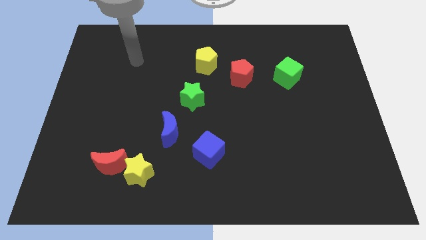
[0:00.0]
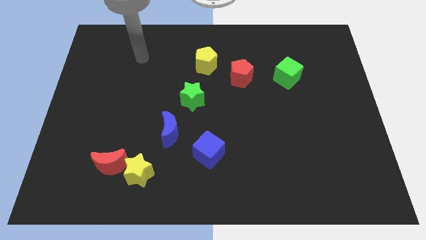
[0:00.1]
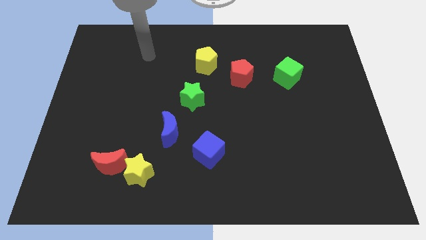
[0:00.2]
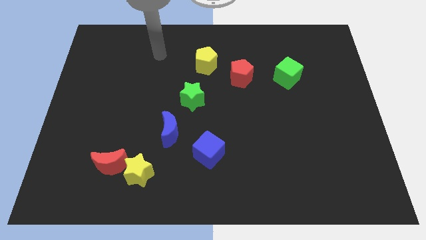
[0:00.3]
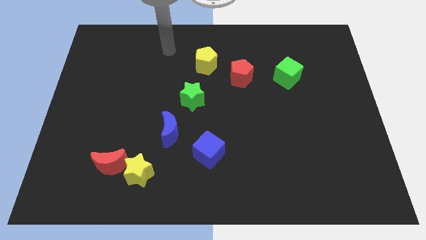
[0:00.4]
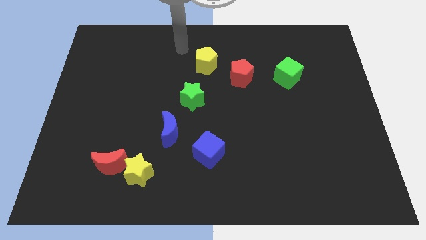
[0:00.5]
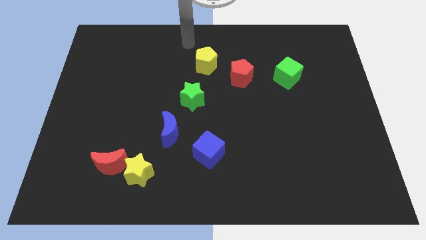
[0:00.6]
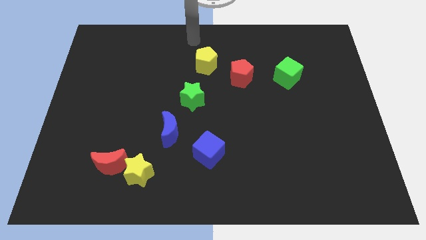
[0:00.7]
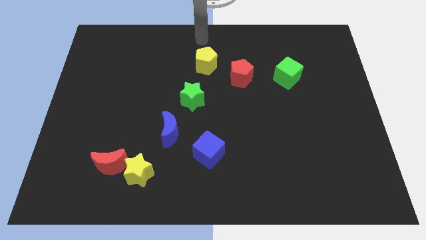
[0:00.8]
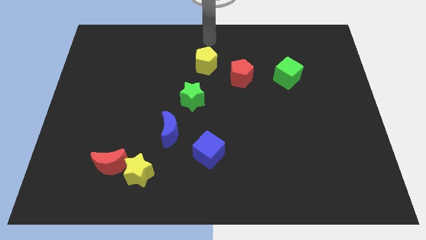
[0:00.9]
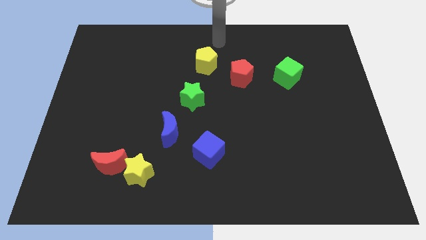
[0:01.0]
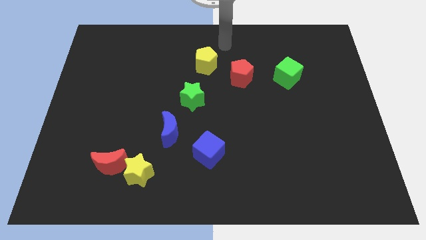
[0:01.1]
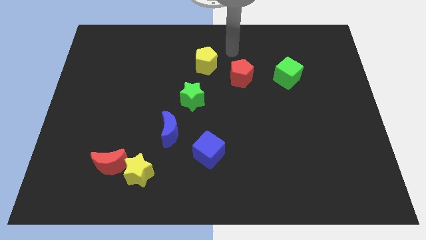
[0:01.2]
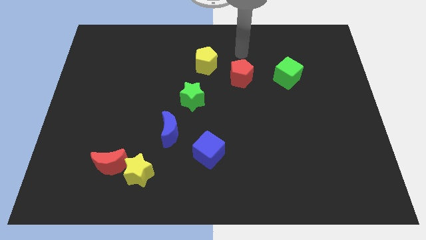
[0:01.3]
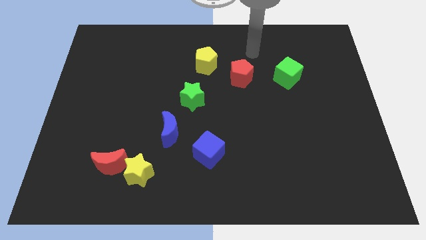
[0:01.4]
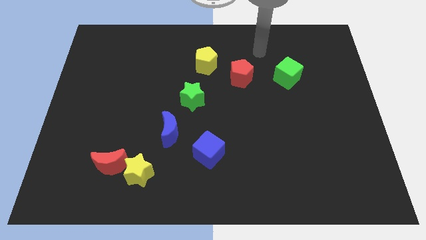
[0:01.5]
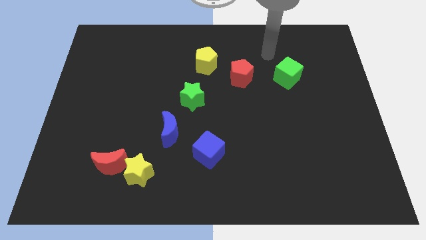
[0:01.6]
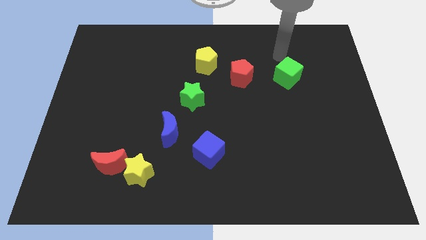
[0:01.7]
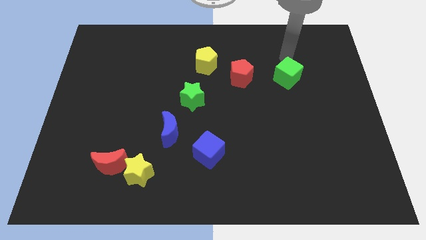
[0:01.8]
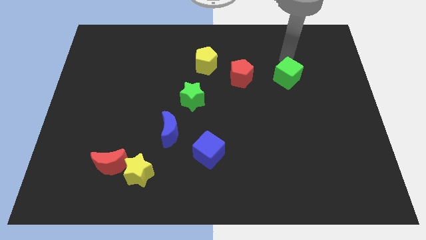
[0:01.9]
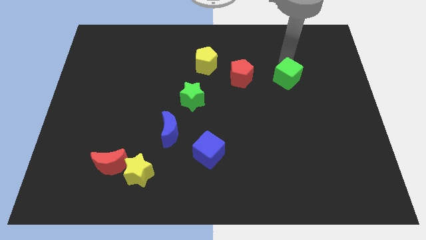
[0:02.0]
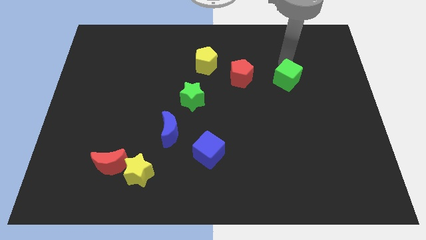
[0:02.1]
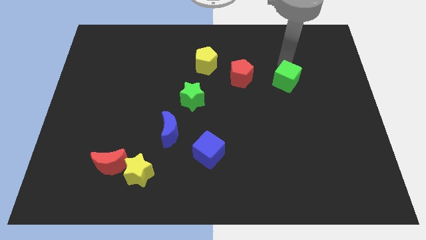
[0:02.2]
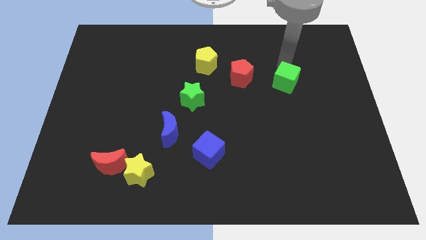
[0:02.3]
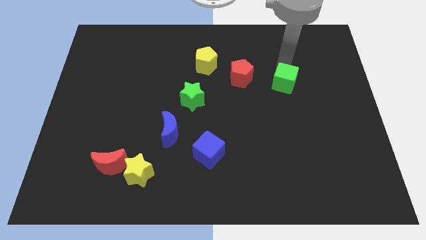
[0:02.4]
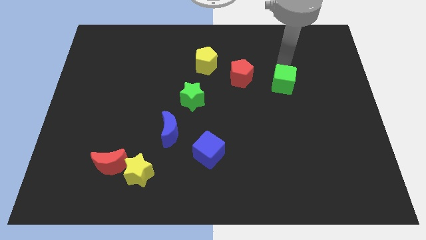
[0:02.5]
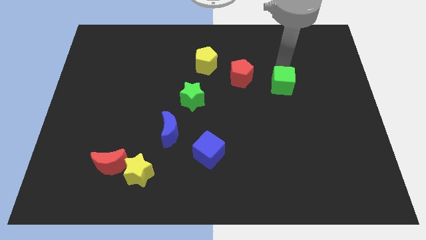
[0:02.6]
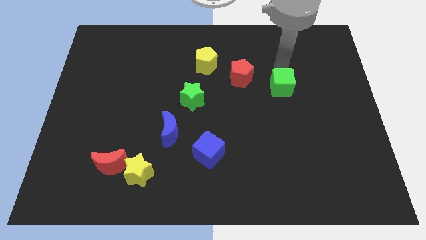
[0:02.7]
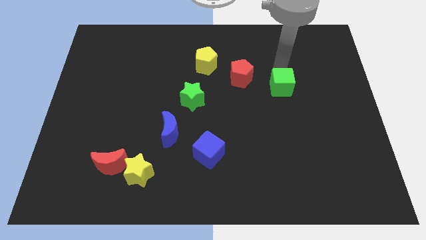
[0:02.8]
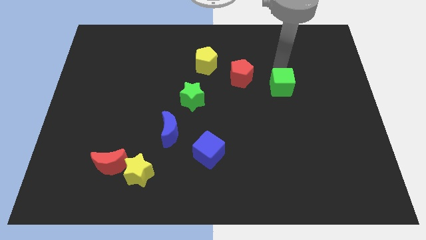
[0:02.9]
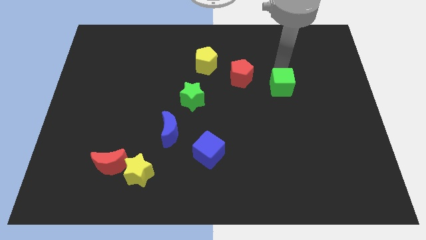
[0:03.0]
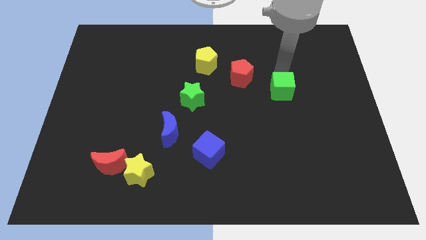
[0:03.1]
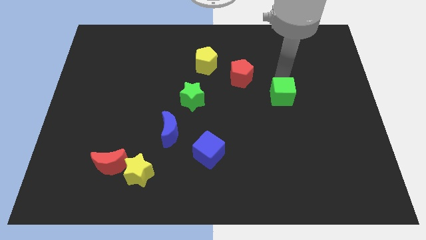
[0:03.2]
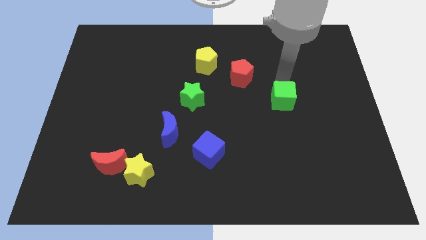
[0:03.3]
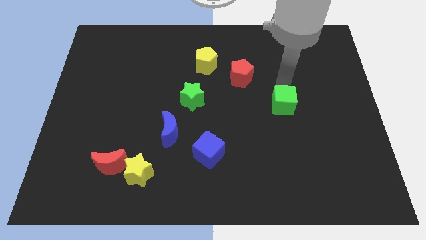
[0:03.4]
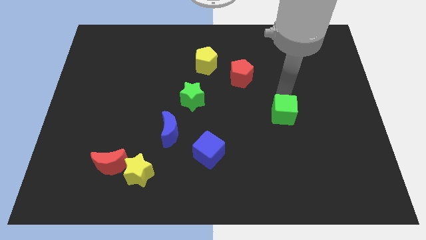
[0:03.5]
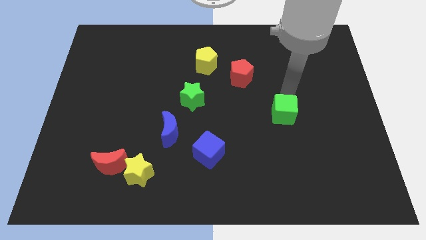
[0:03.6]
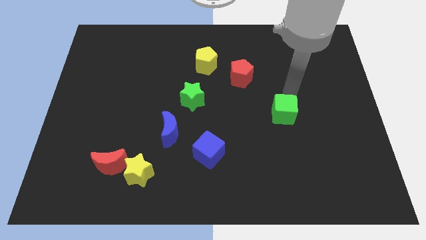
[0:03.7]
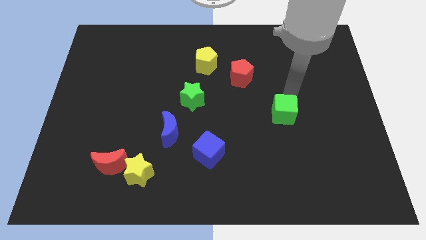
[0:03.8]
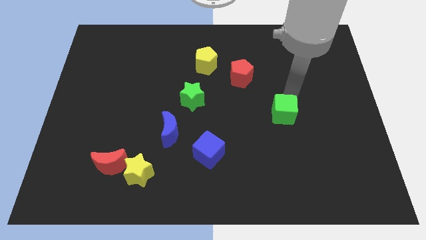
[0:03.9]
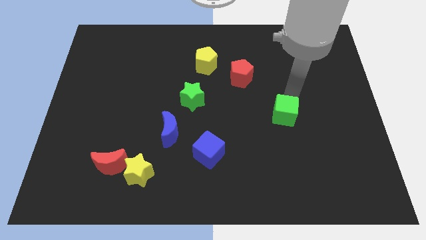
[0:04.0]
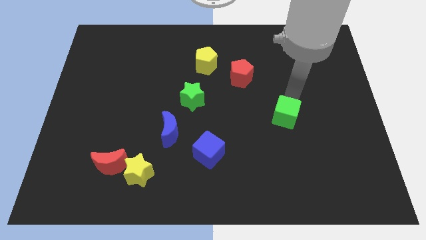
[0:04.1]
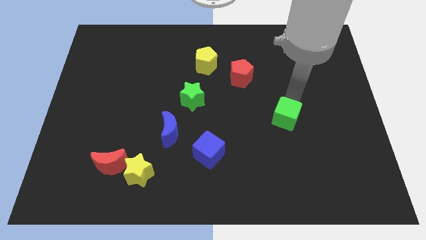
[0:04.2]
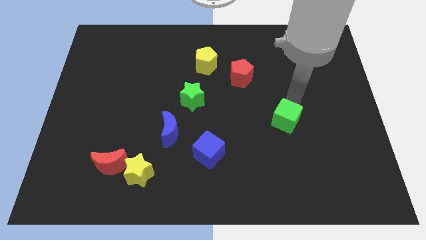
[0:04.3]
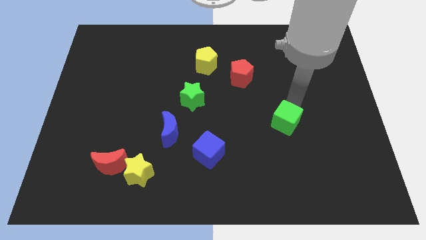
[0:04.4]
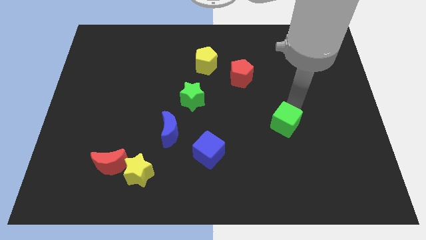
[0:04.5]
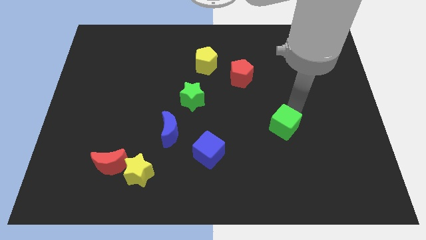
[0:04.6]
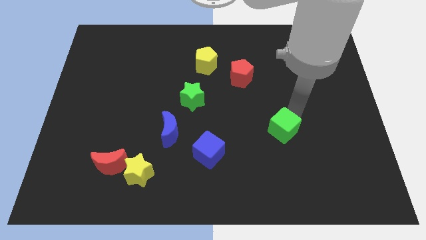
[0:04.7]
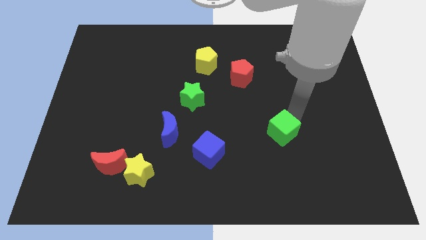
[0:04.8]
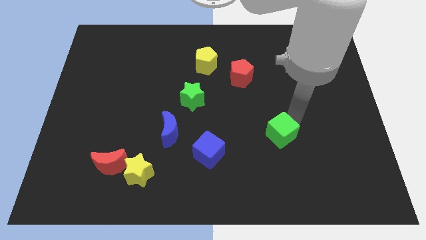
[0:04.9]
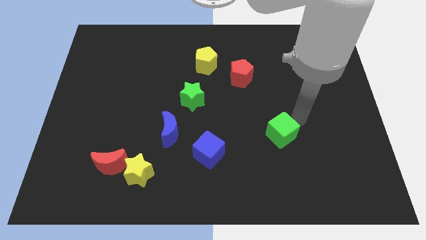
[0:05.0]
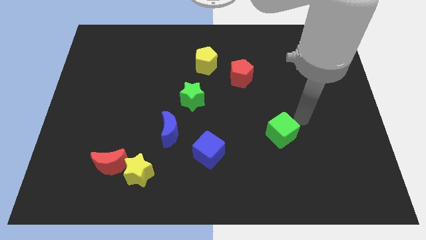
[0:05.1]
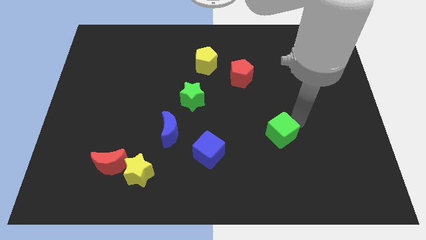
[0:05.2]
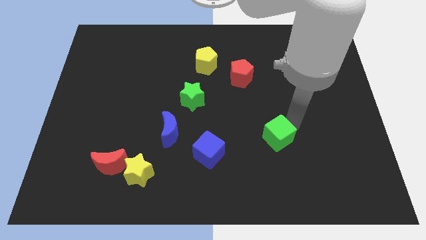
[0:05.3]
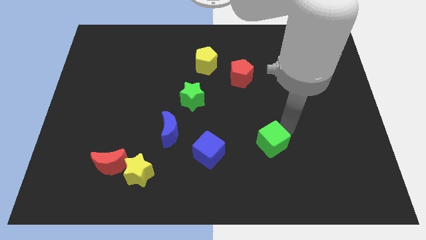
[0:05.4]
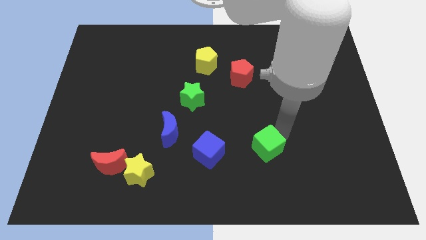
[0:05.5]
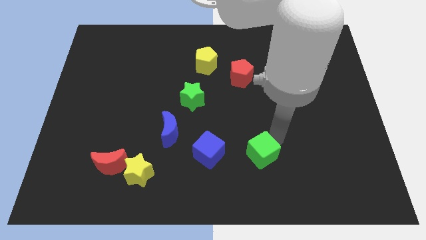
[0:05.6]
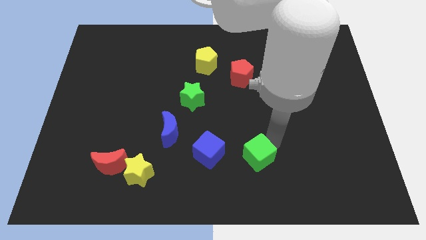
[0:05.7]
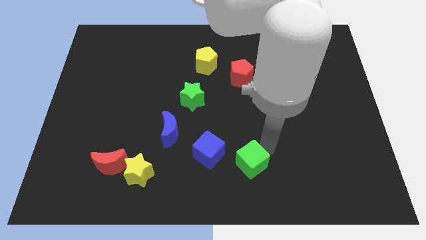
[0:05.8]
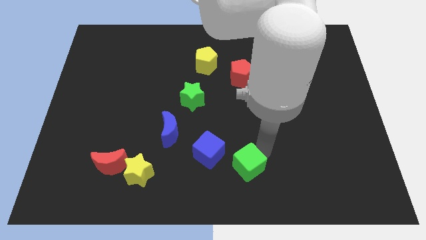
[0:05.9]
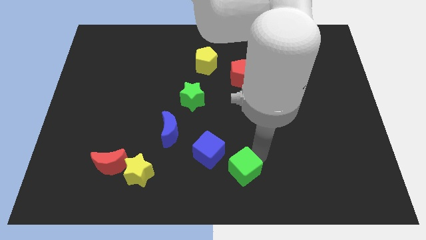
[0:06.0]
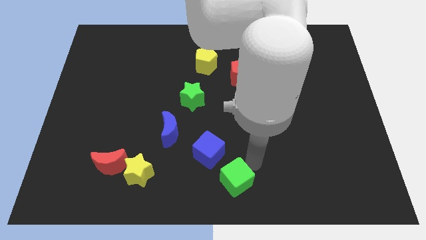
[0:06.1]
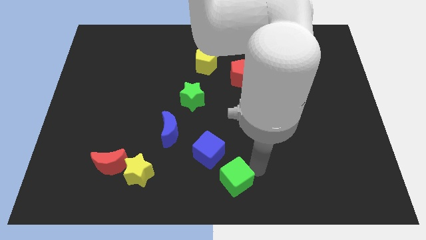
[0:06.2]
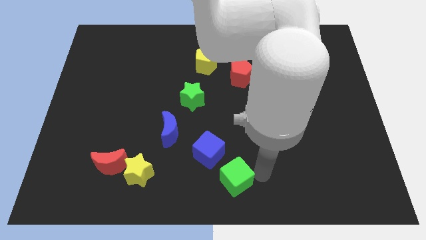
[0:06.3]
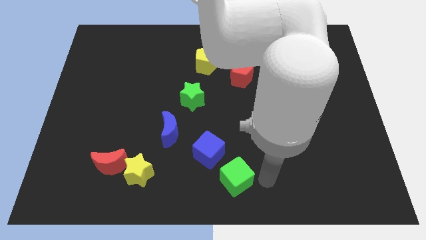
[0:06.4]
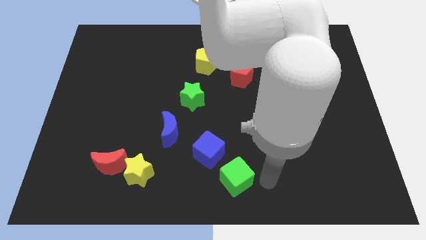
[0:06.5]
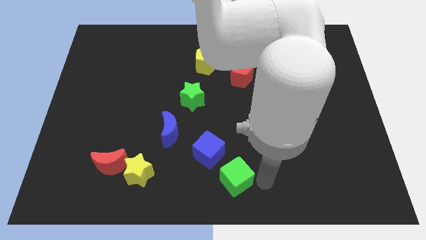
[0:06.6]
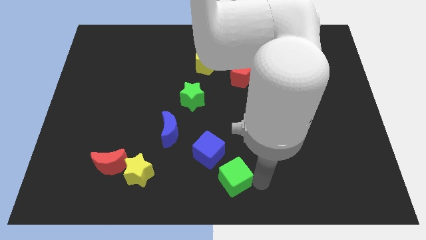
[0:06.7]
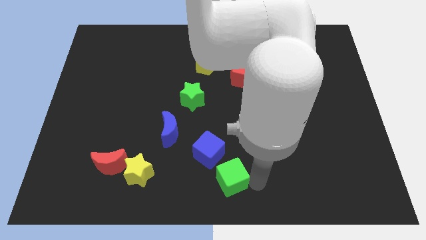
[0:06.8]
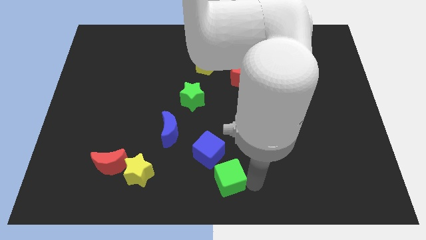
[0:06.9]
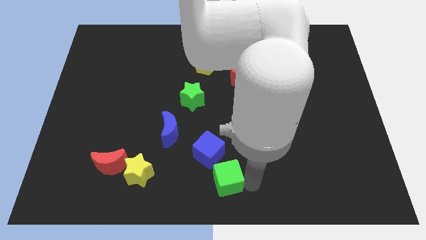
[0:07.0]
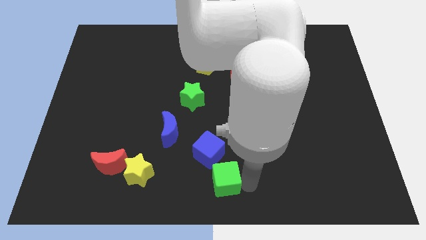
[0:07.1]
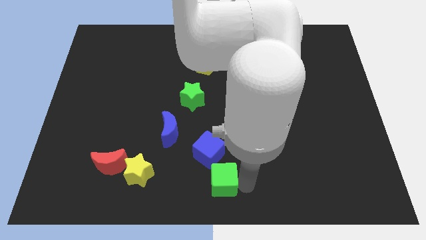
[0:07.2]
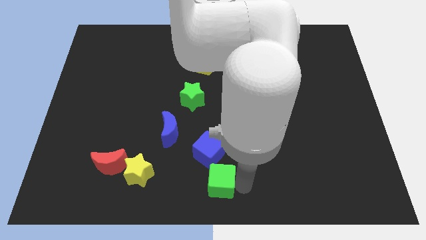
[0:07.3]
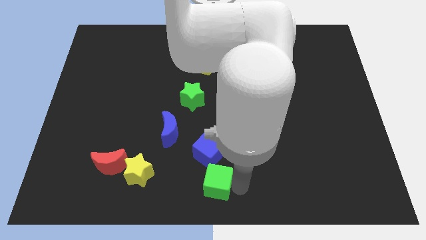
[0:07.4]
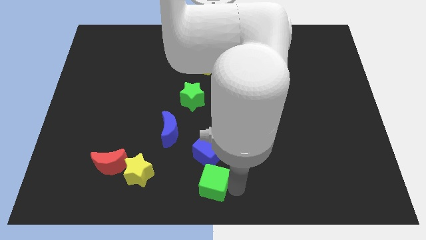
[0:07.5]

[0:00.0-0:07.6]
slide the green cube just right of the yellow star

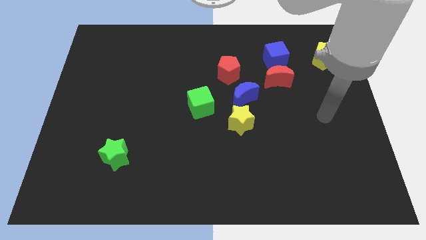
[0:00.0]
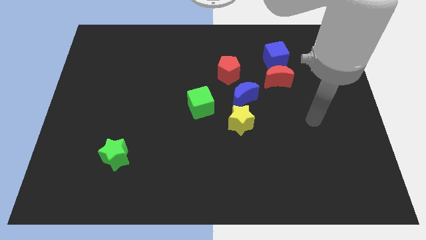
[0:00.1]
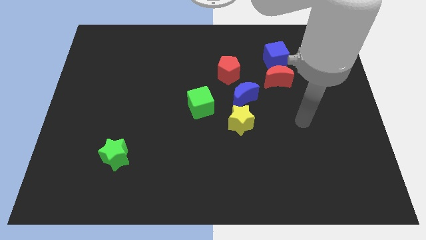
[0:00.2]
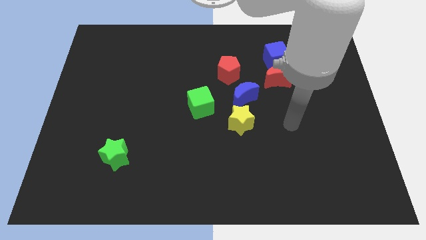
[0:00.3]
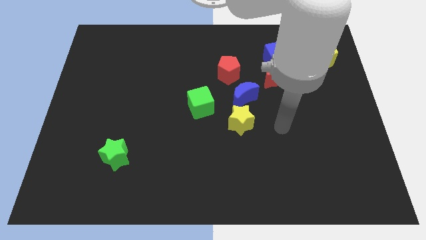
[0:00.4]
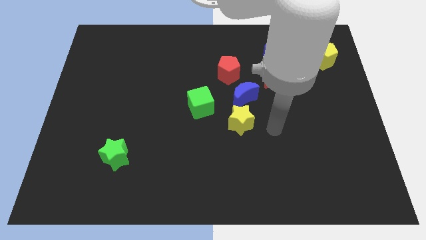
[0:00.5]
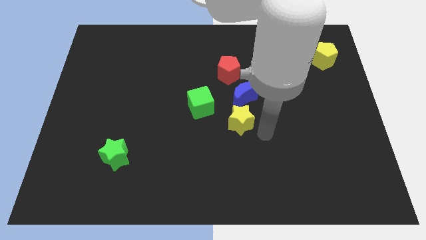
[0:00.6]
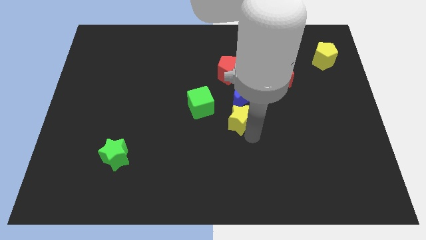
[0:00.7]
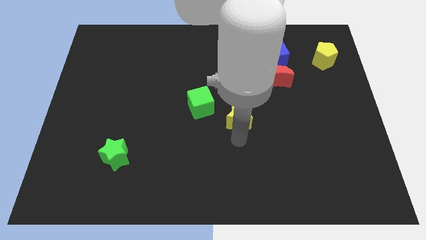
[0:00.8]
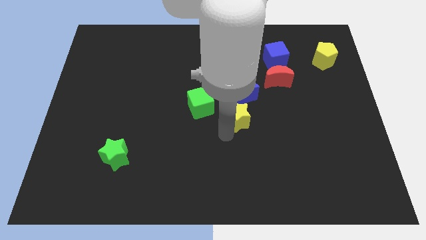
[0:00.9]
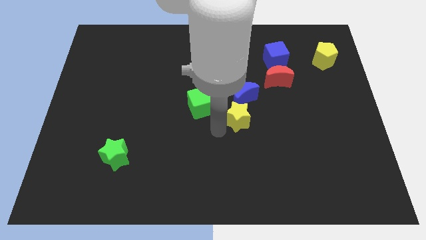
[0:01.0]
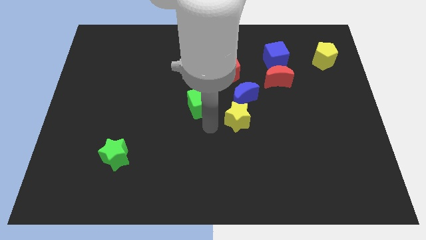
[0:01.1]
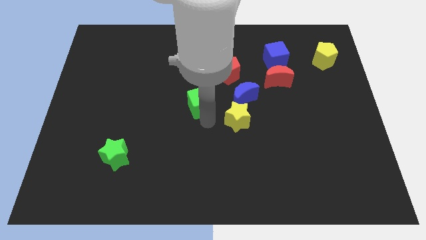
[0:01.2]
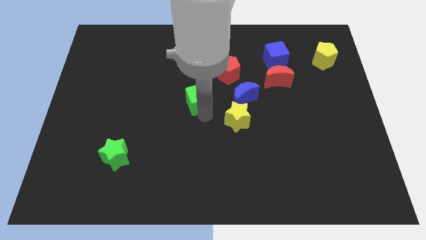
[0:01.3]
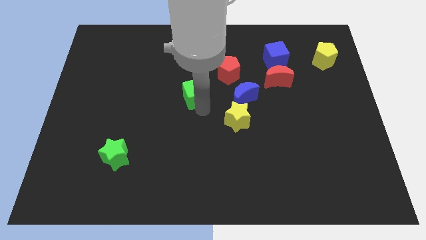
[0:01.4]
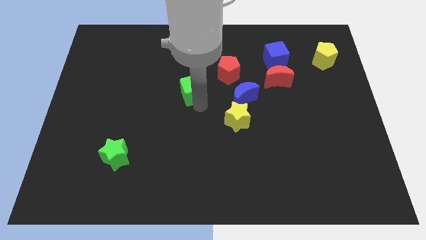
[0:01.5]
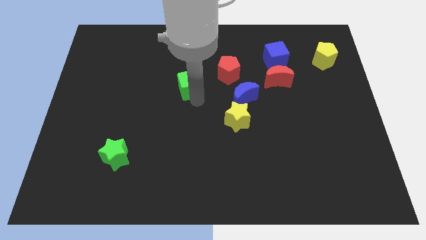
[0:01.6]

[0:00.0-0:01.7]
move the green cube left of the red pentagon
